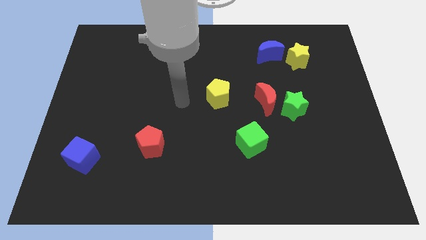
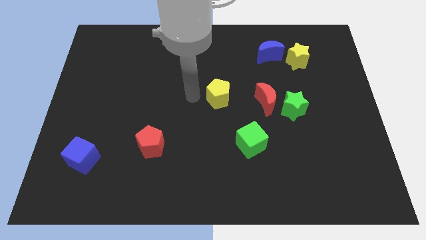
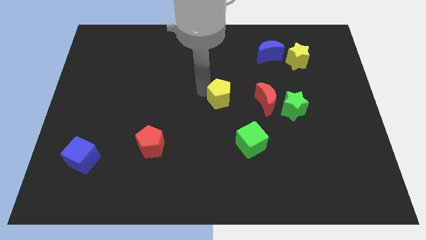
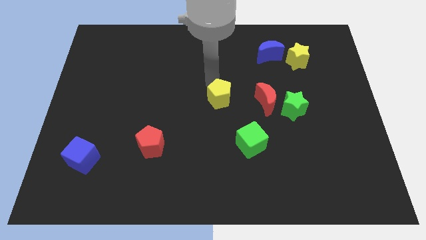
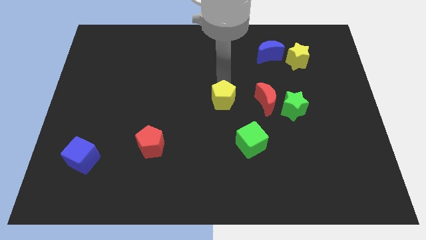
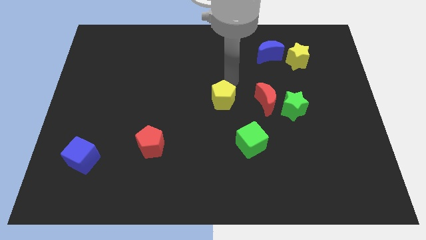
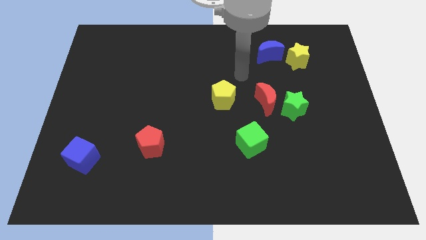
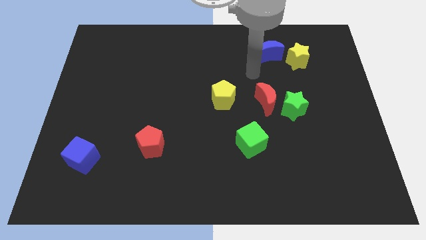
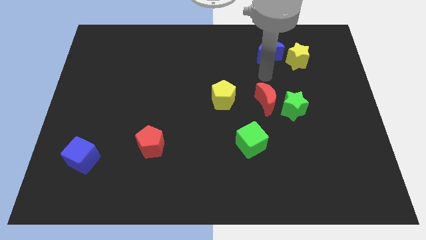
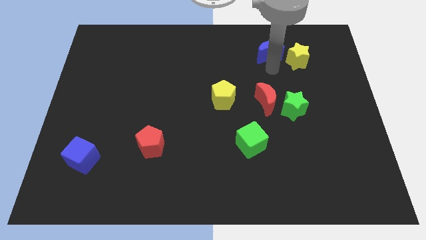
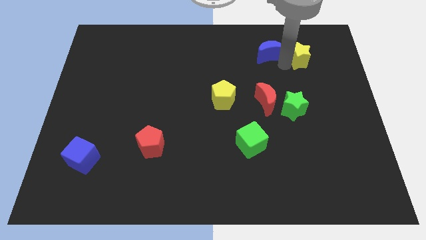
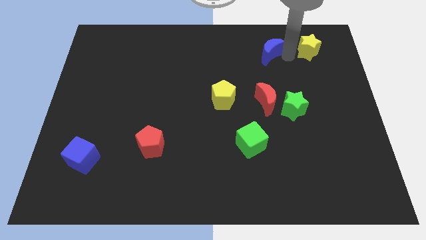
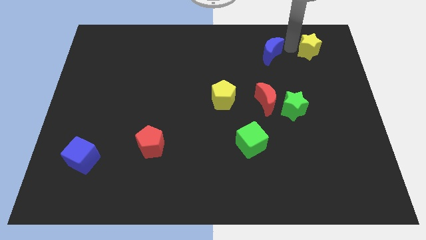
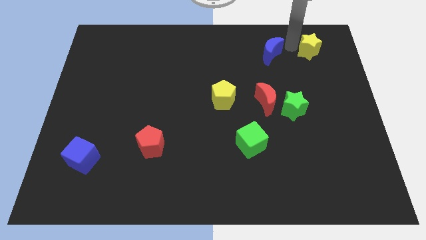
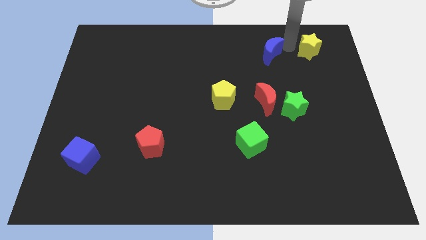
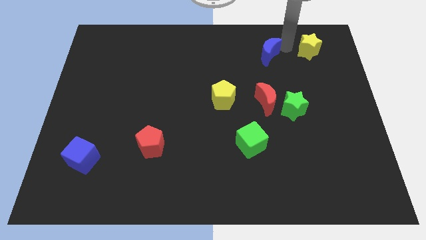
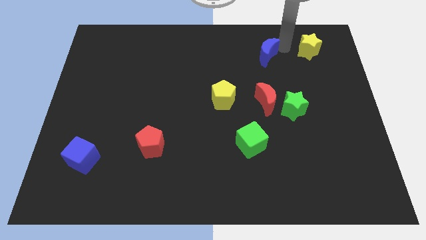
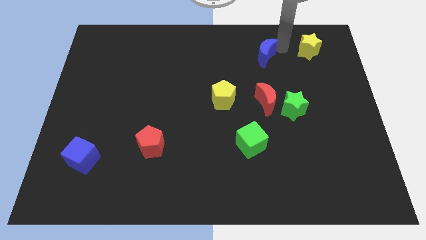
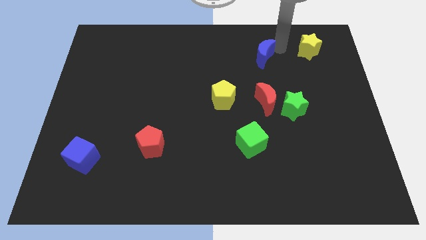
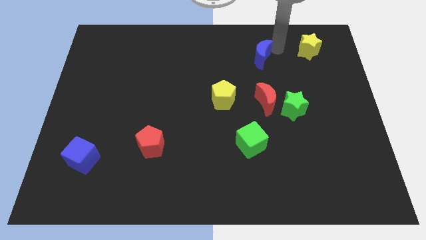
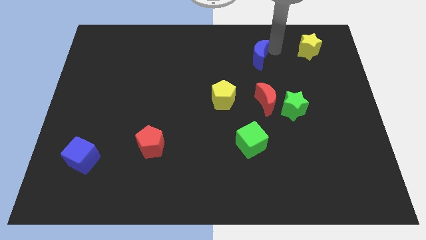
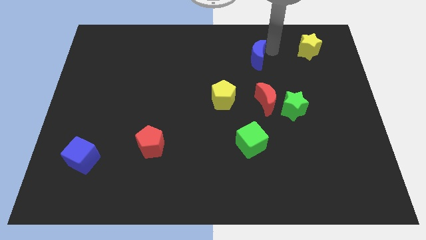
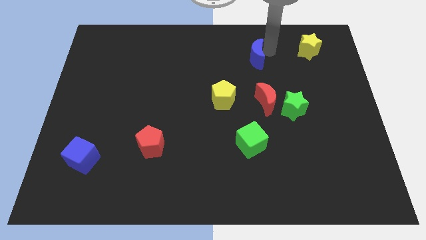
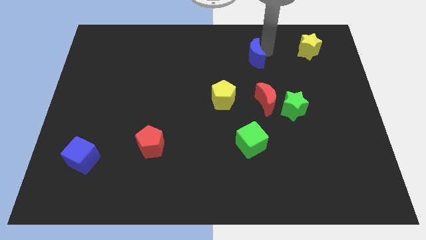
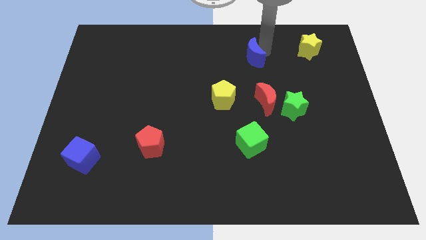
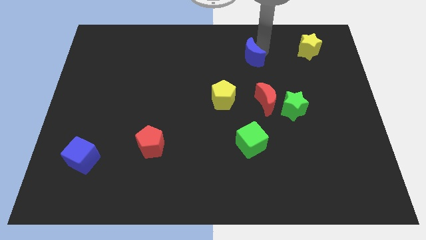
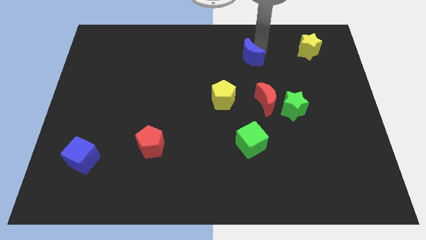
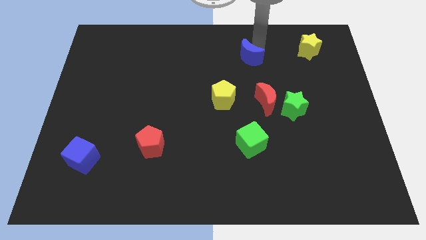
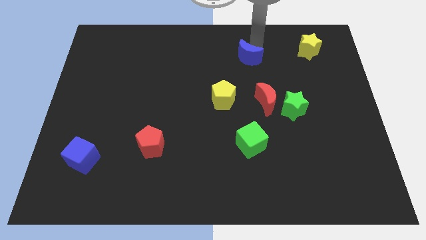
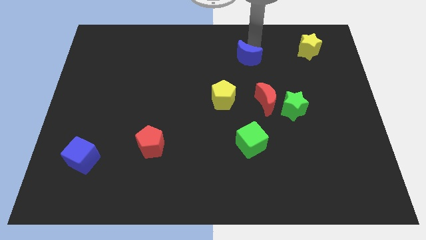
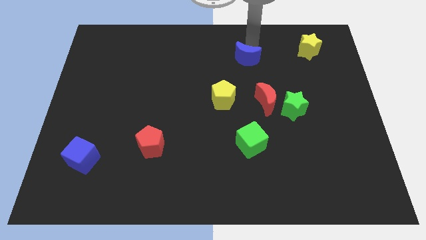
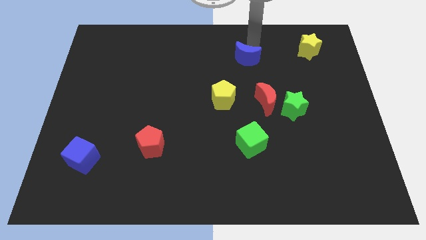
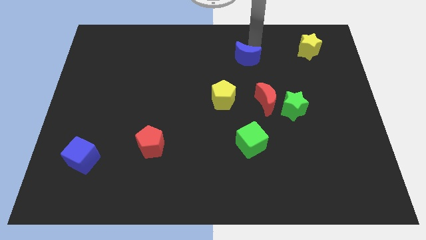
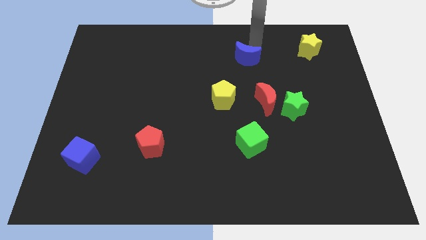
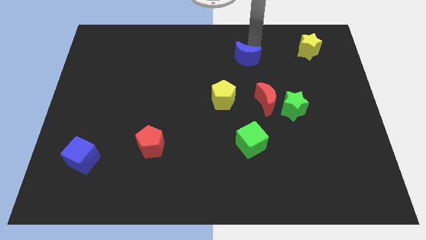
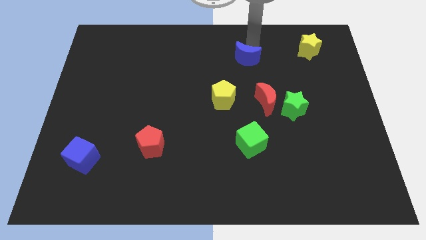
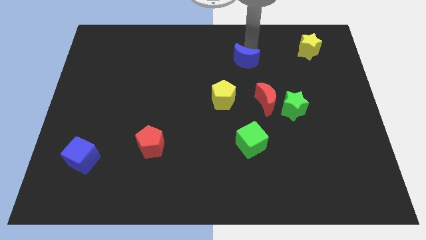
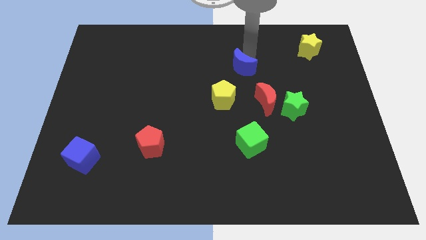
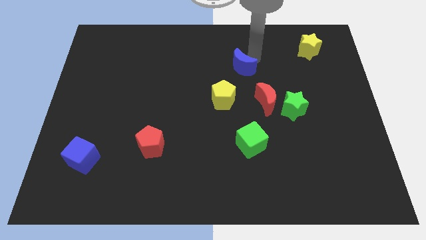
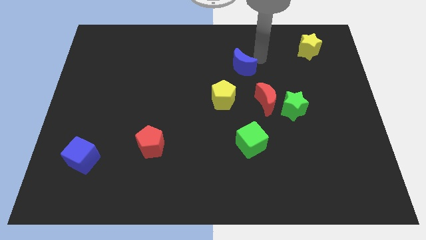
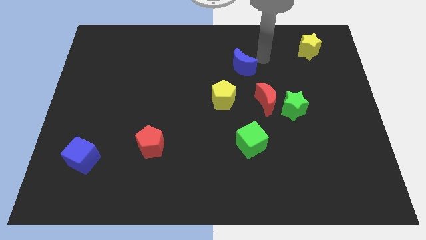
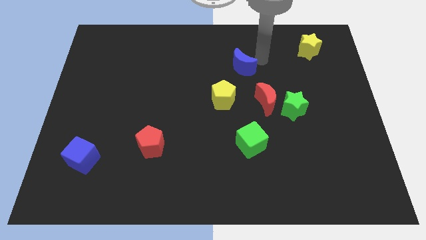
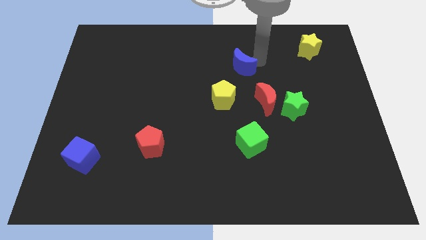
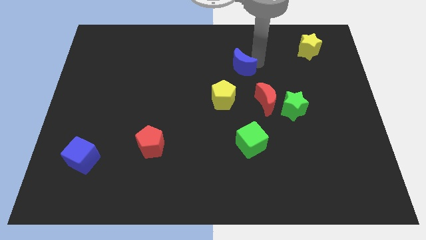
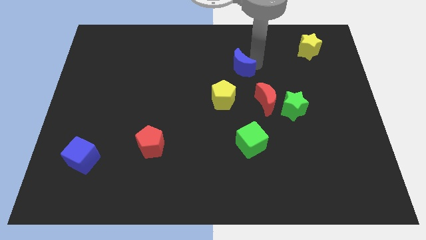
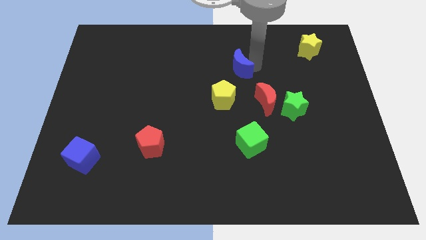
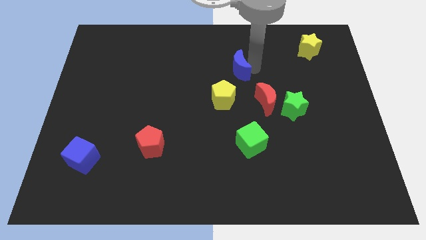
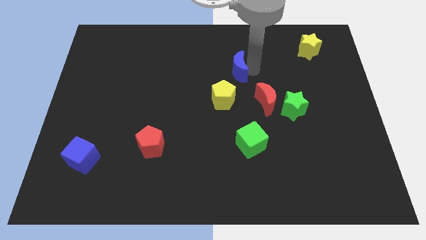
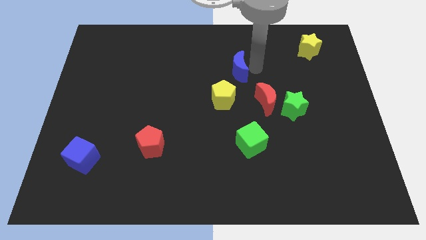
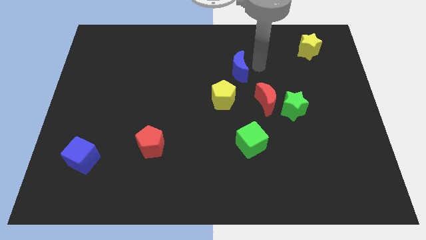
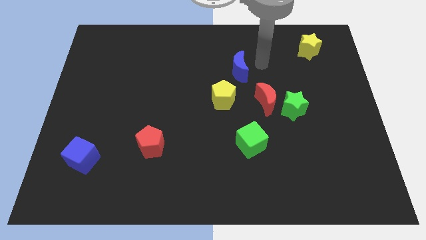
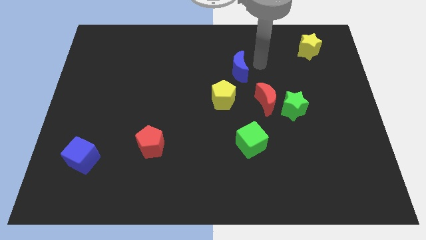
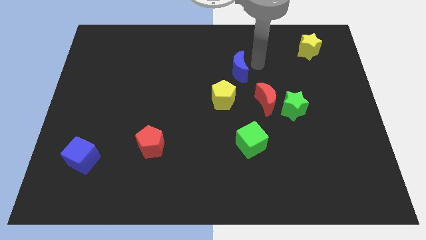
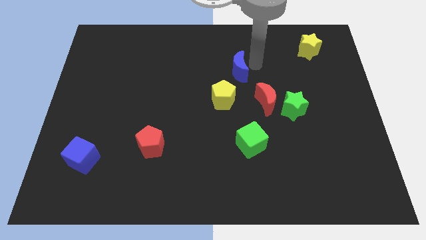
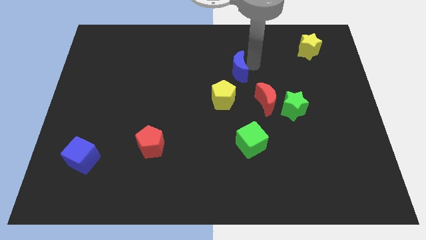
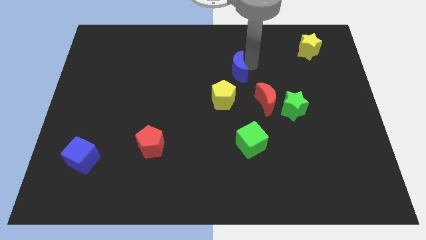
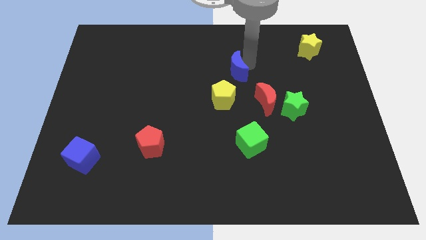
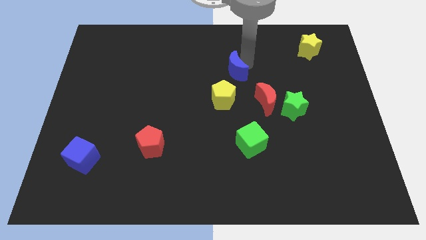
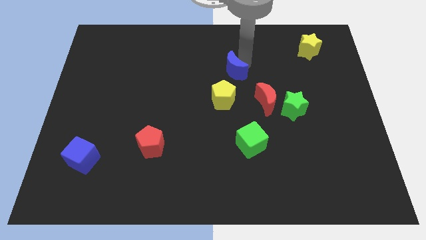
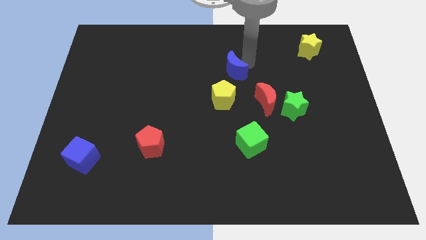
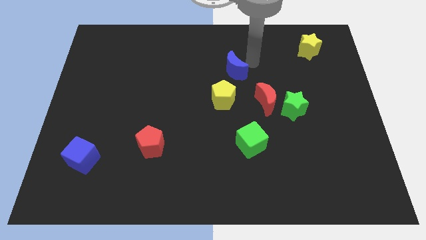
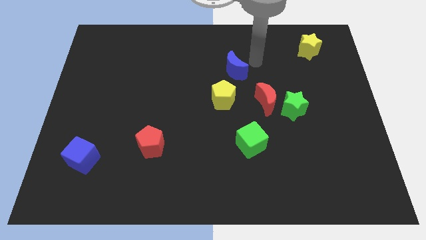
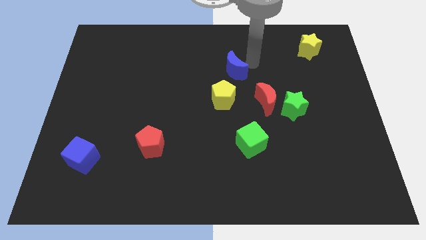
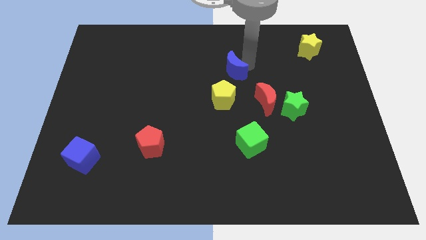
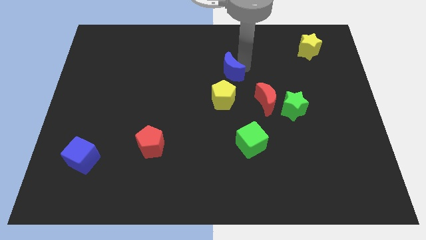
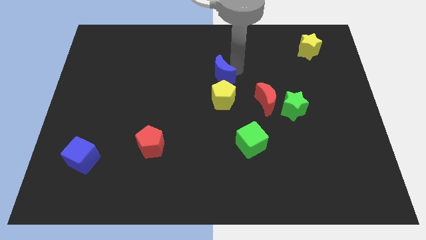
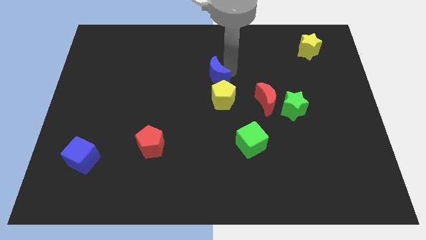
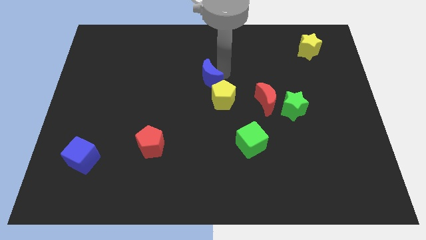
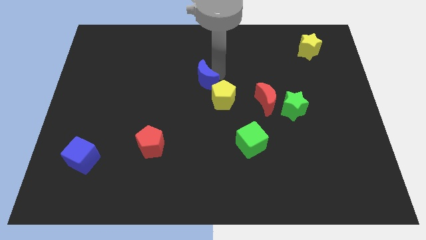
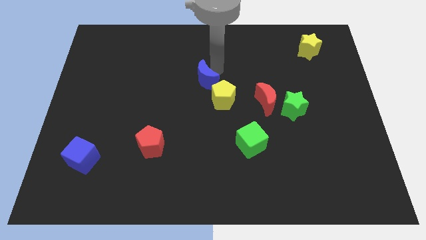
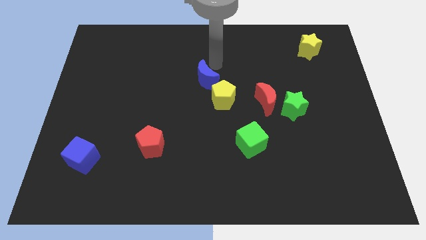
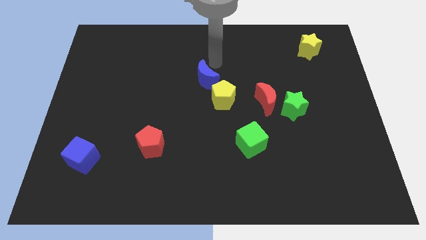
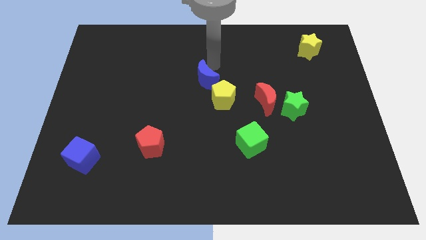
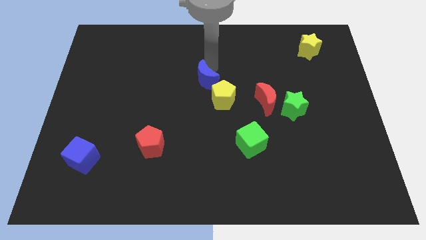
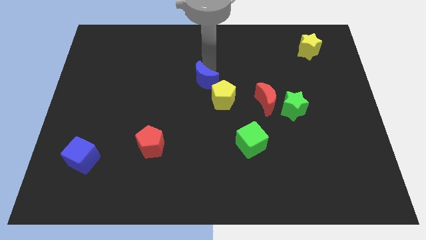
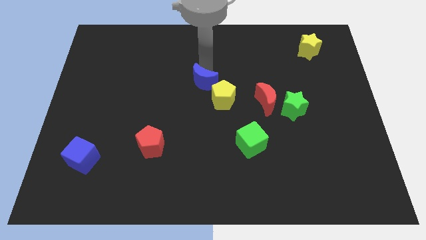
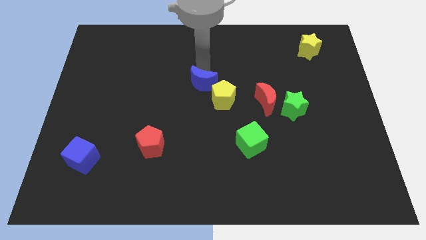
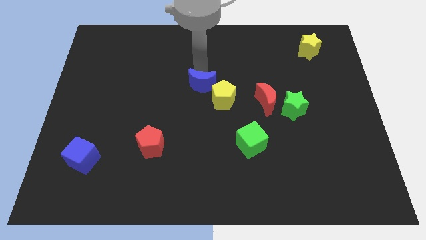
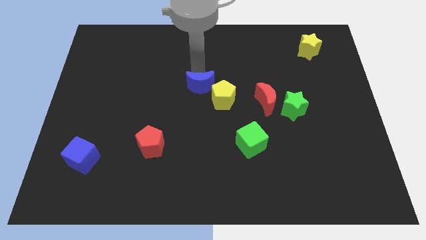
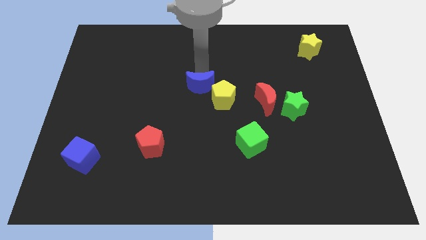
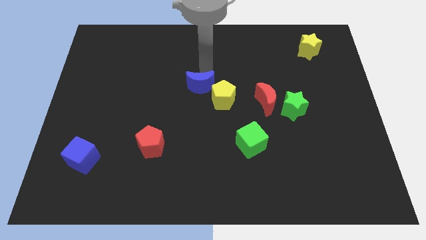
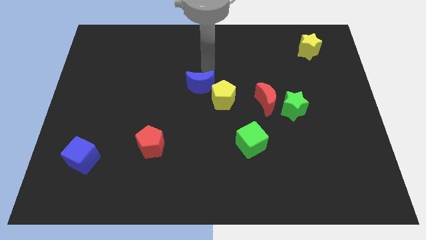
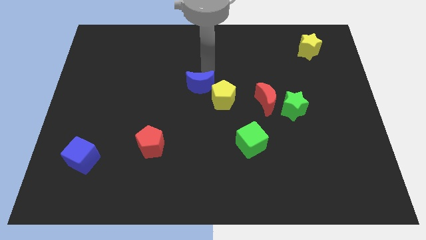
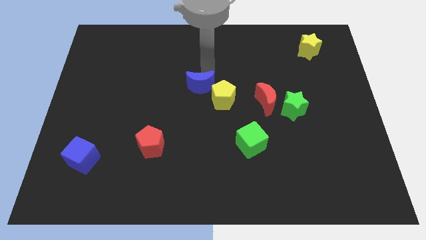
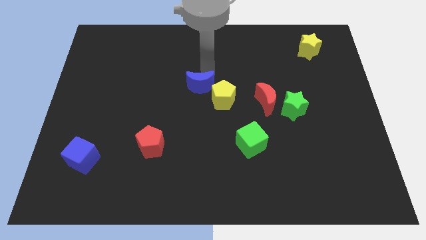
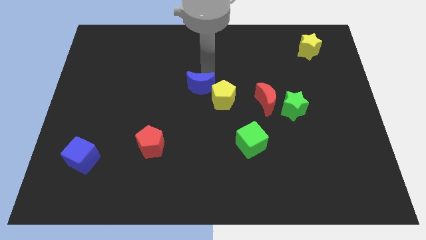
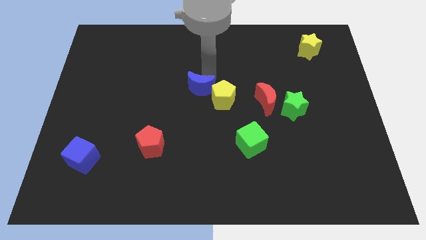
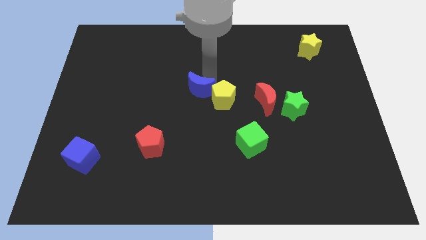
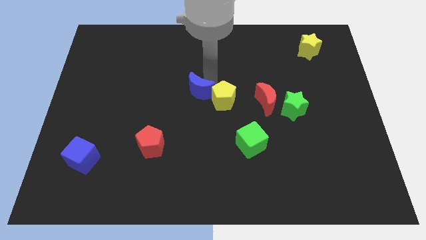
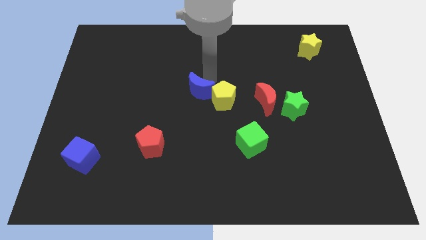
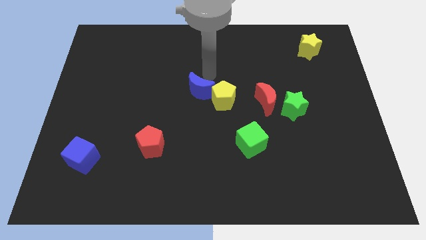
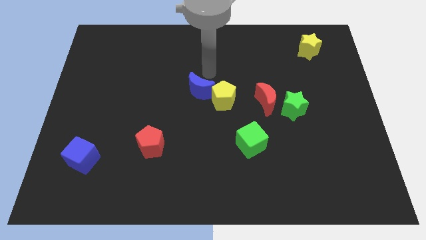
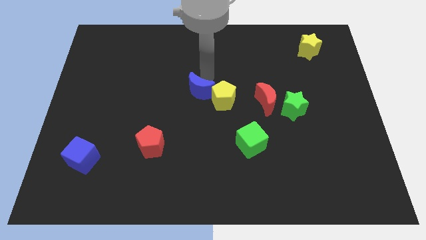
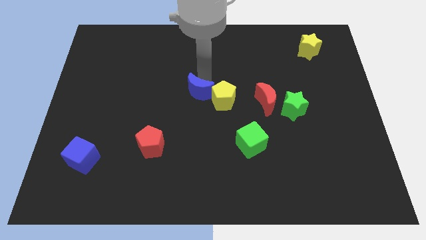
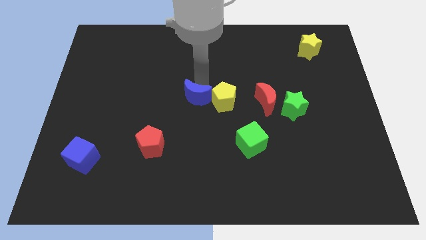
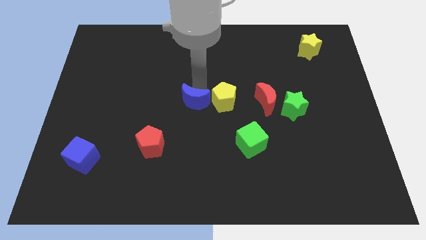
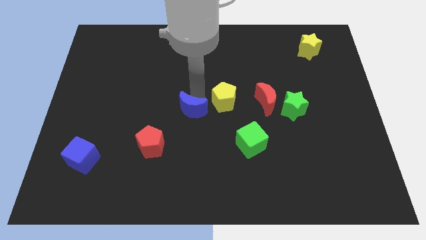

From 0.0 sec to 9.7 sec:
push the blue moon to the top right of the red pentagon
